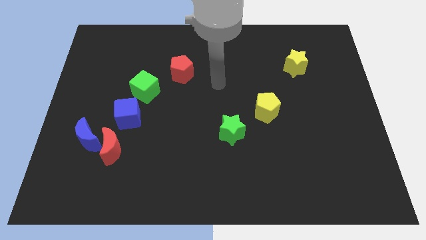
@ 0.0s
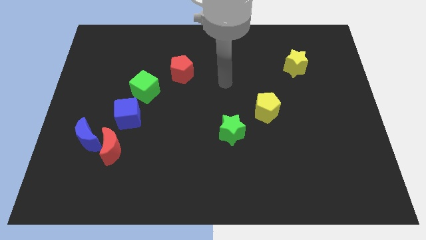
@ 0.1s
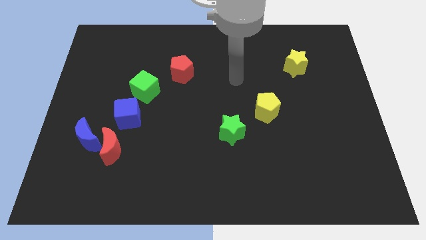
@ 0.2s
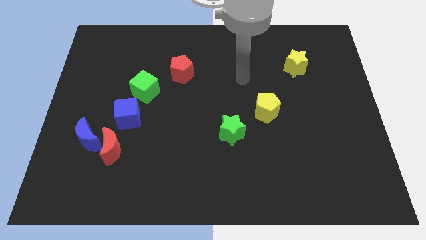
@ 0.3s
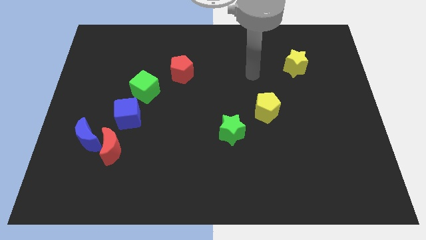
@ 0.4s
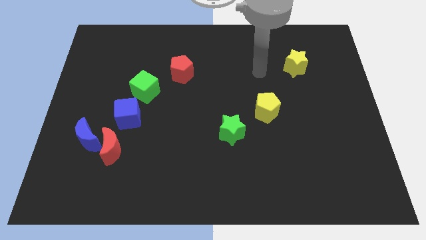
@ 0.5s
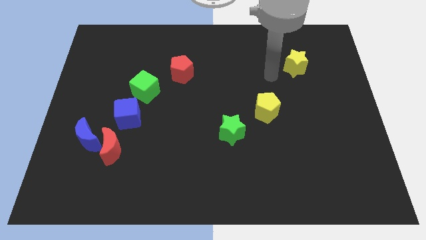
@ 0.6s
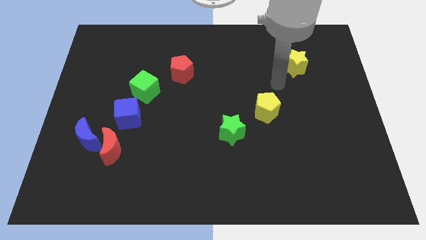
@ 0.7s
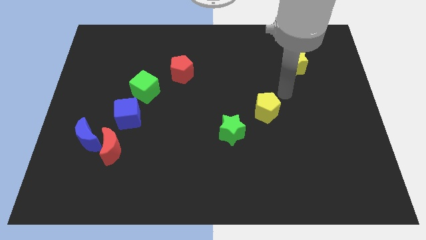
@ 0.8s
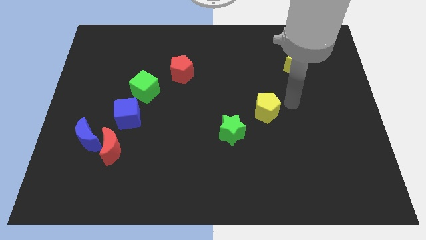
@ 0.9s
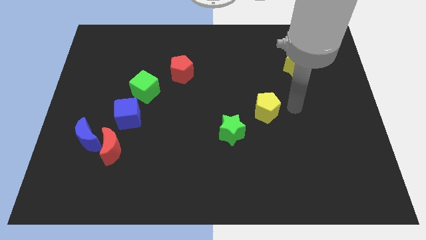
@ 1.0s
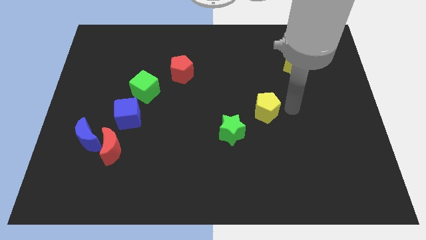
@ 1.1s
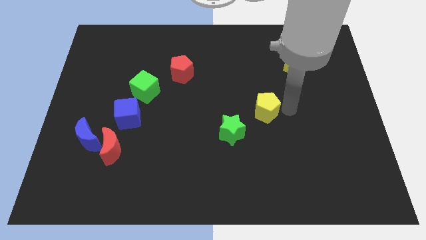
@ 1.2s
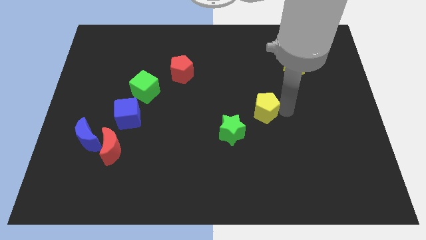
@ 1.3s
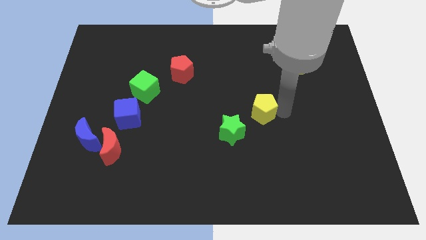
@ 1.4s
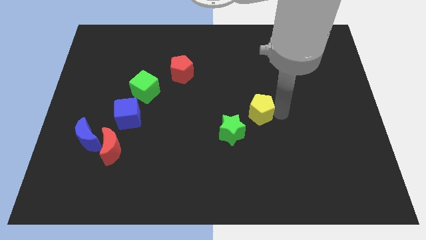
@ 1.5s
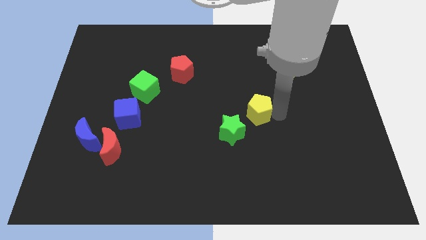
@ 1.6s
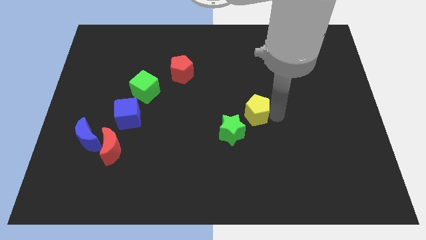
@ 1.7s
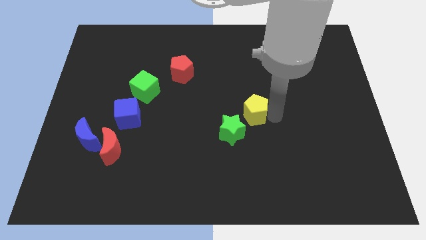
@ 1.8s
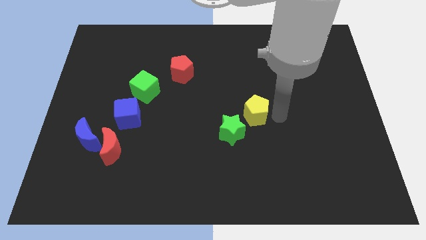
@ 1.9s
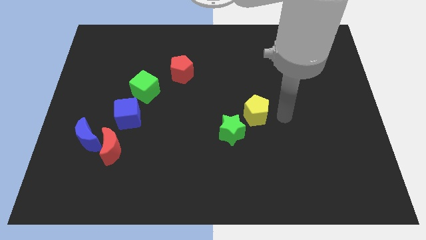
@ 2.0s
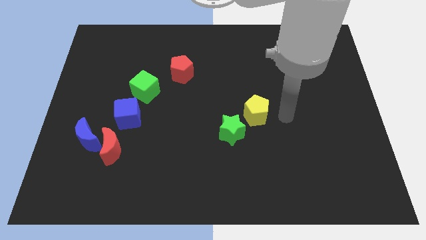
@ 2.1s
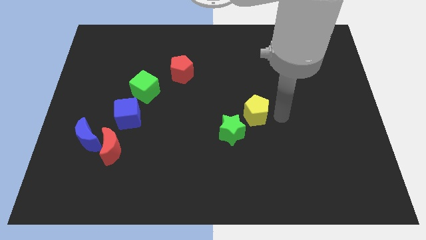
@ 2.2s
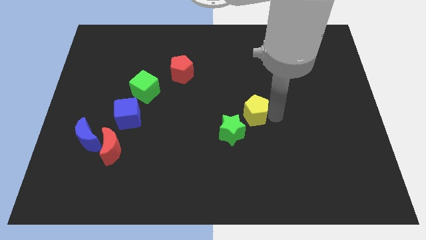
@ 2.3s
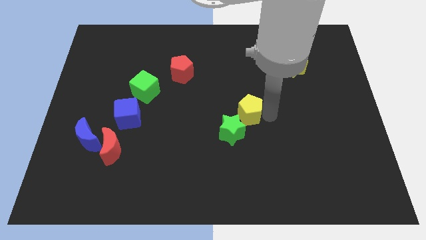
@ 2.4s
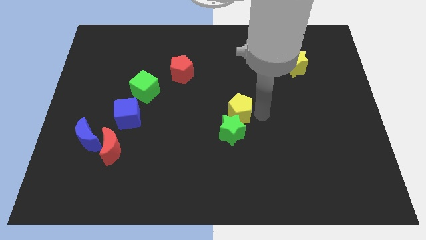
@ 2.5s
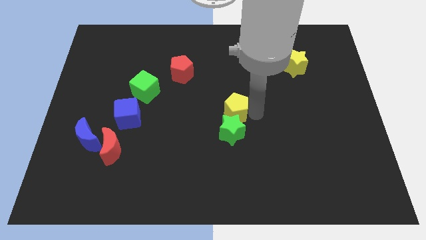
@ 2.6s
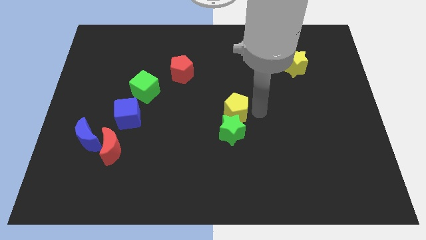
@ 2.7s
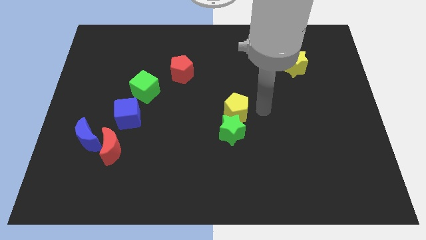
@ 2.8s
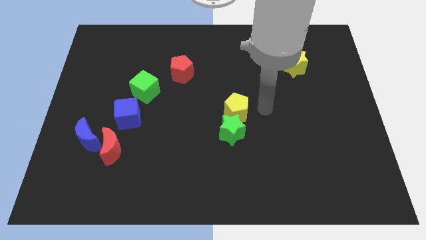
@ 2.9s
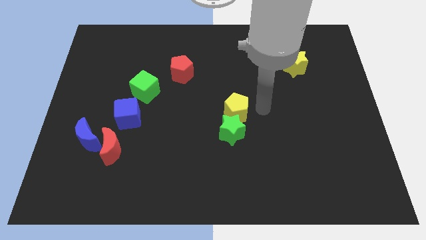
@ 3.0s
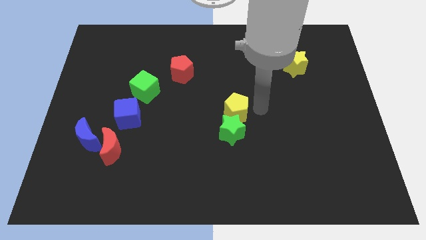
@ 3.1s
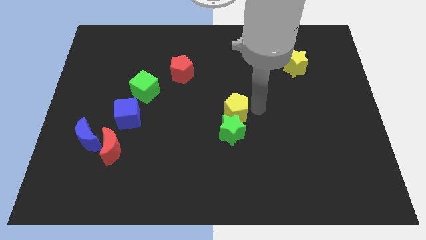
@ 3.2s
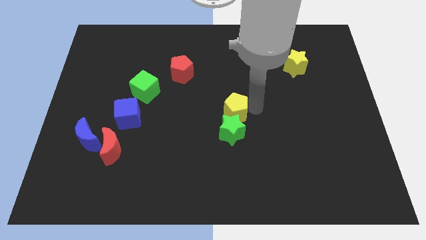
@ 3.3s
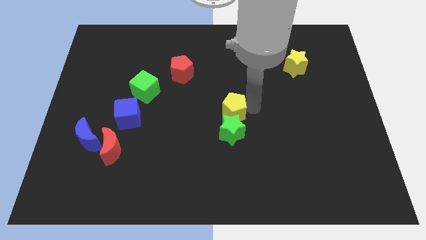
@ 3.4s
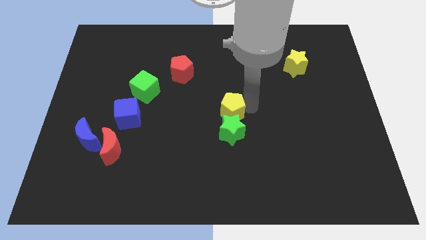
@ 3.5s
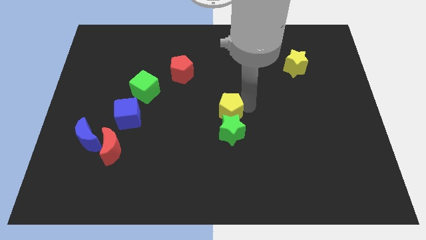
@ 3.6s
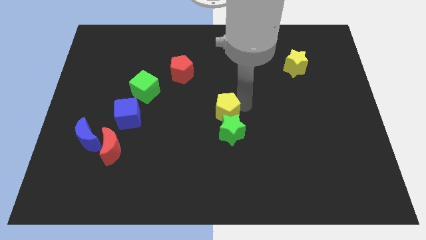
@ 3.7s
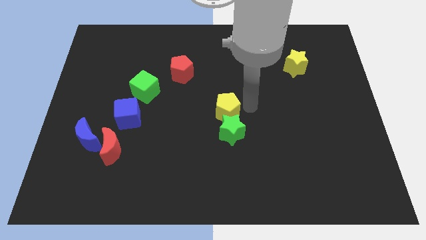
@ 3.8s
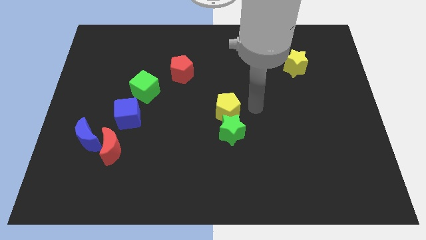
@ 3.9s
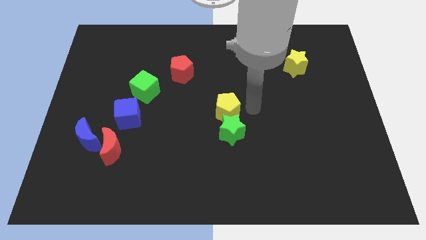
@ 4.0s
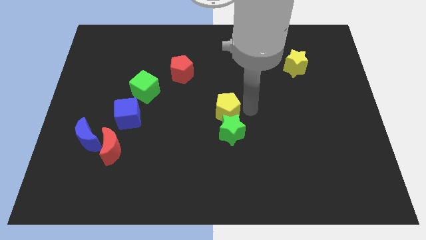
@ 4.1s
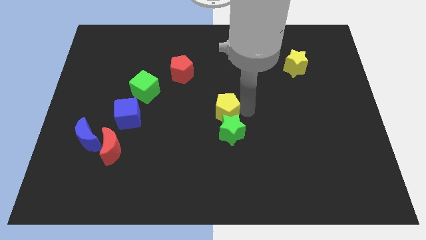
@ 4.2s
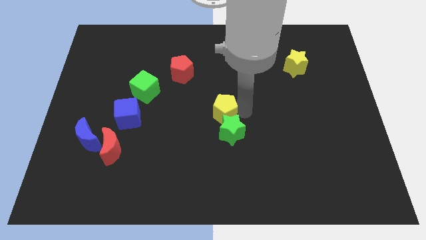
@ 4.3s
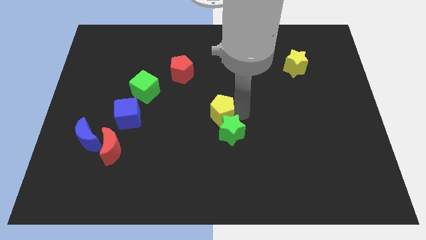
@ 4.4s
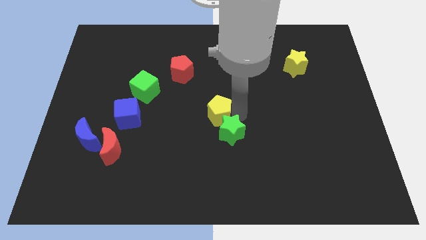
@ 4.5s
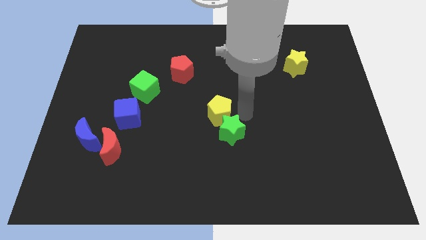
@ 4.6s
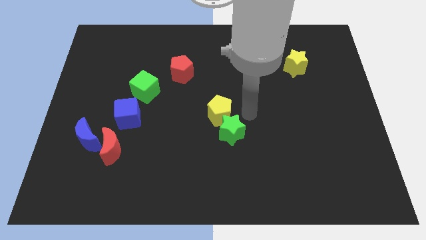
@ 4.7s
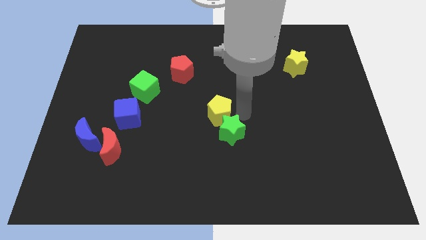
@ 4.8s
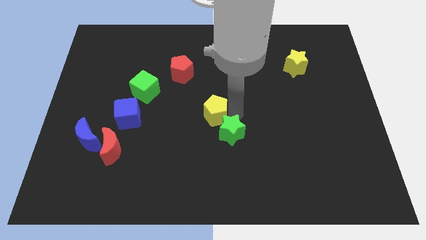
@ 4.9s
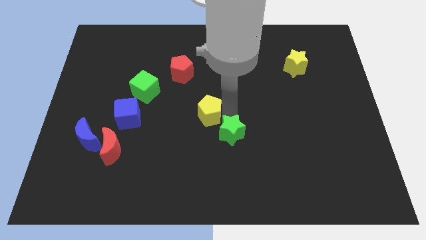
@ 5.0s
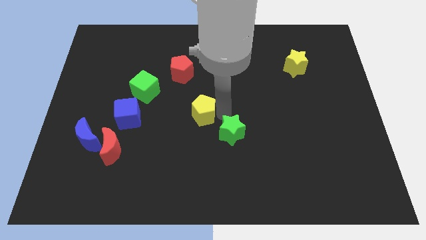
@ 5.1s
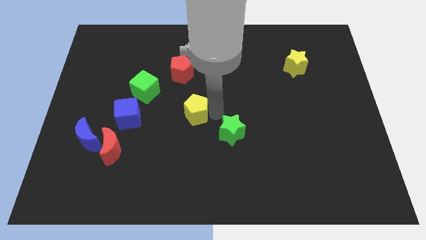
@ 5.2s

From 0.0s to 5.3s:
put the yellow pentagon just right of the blue cube

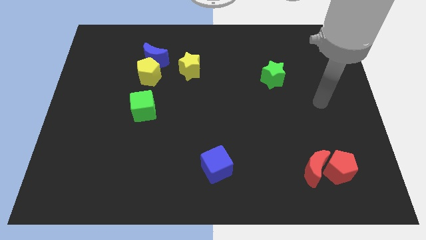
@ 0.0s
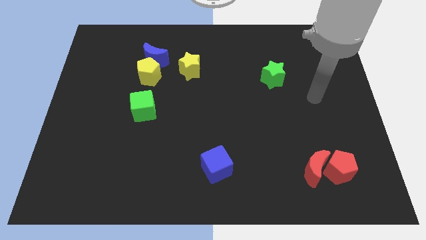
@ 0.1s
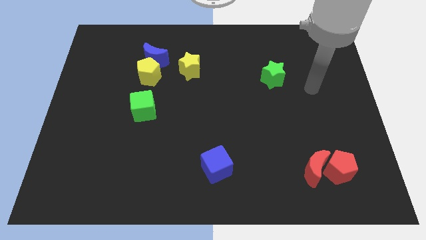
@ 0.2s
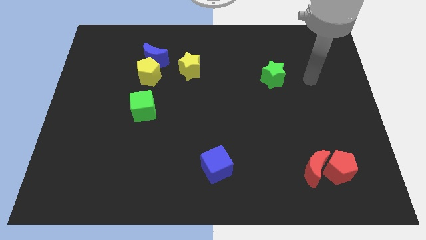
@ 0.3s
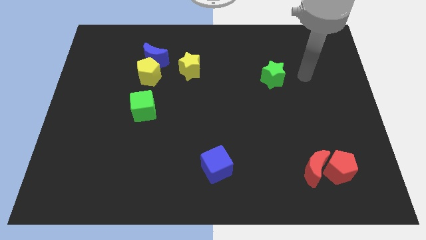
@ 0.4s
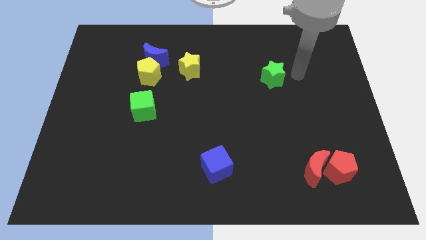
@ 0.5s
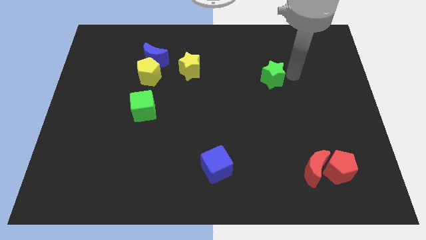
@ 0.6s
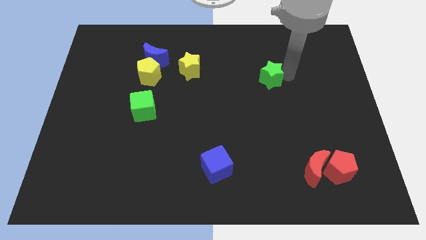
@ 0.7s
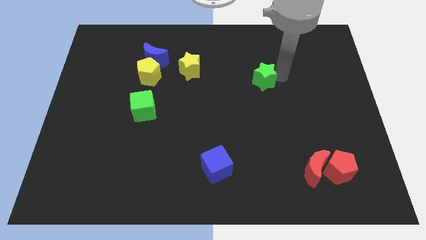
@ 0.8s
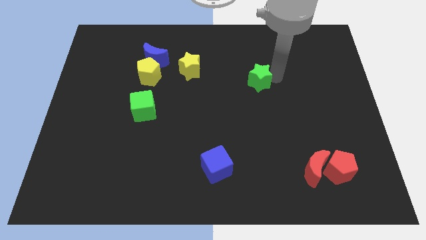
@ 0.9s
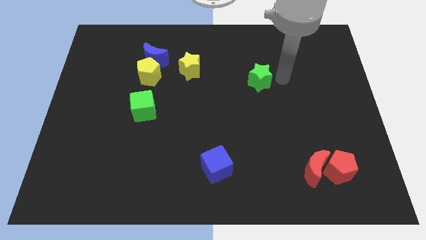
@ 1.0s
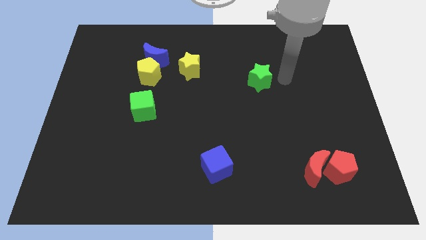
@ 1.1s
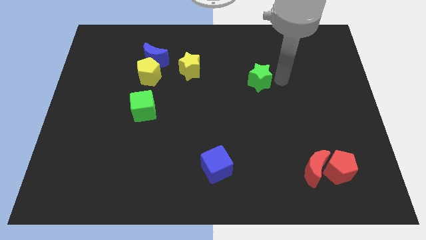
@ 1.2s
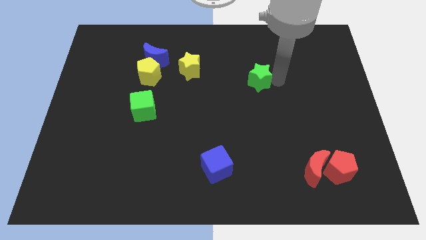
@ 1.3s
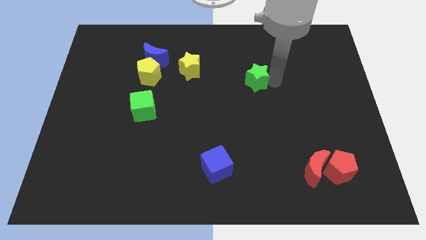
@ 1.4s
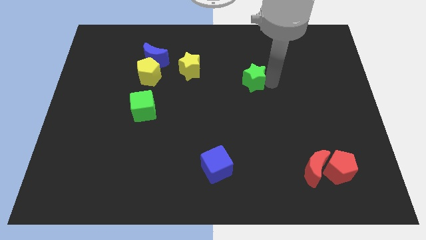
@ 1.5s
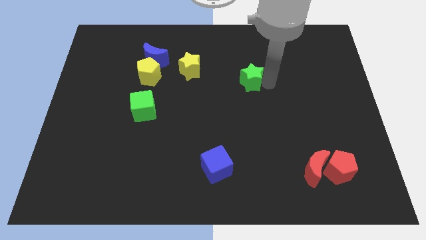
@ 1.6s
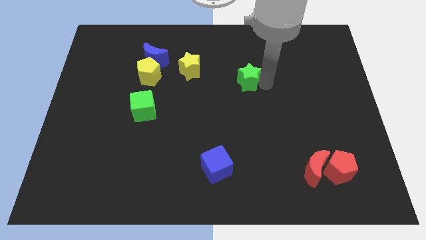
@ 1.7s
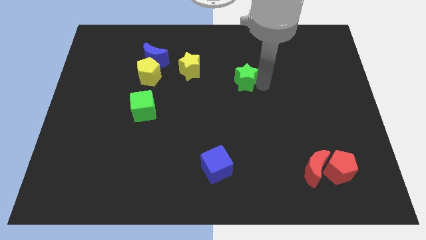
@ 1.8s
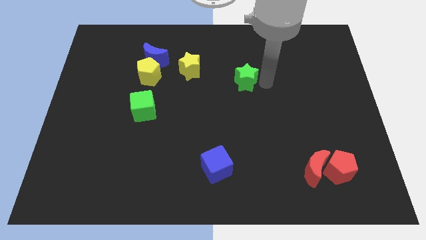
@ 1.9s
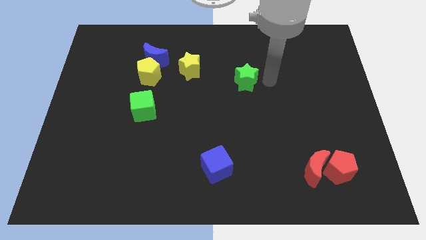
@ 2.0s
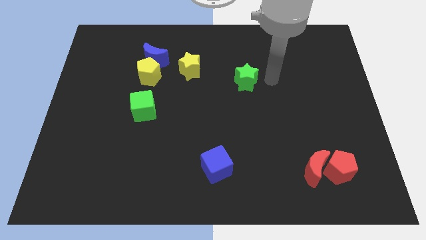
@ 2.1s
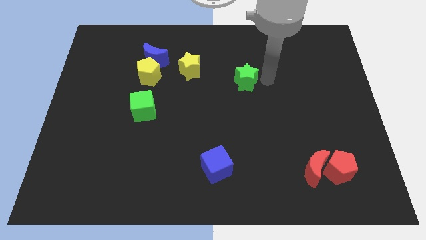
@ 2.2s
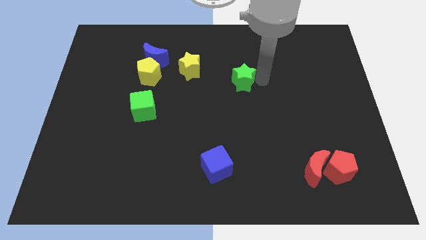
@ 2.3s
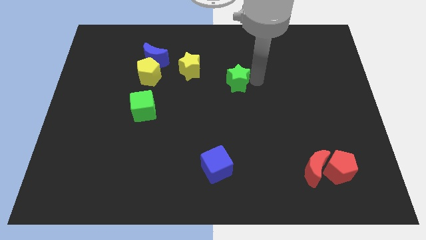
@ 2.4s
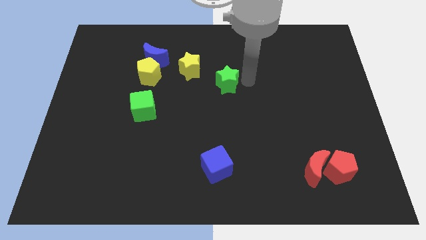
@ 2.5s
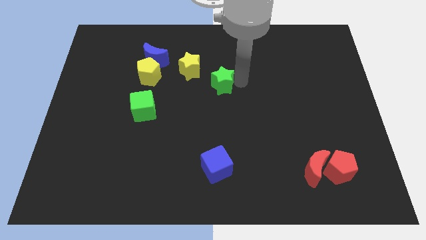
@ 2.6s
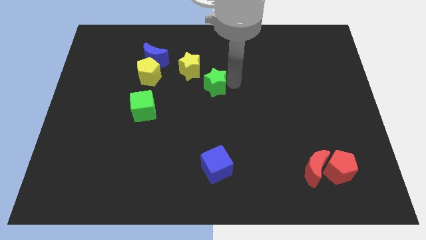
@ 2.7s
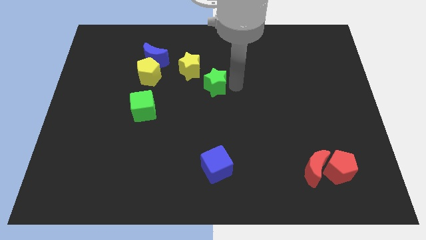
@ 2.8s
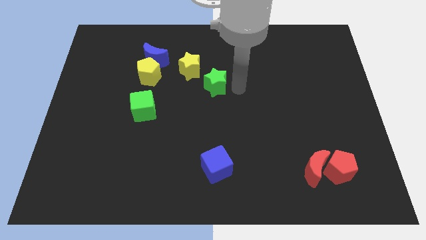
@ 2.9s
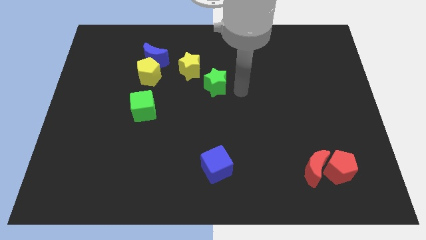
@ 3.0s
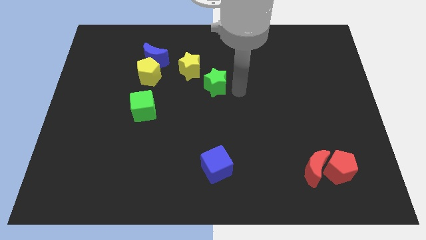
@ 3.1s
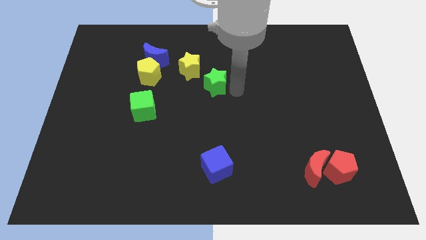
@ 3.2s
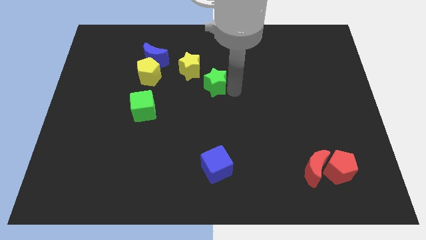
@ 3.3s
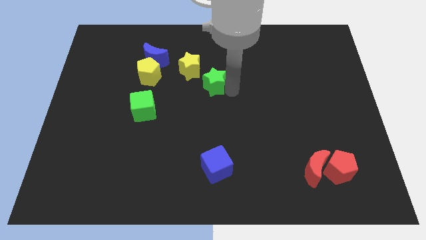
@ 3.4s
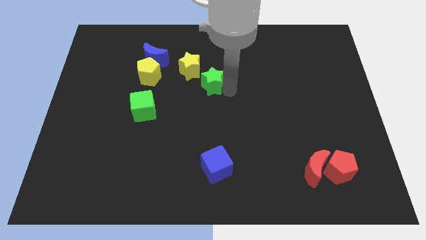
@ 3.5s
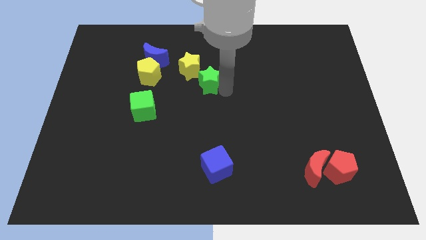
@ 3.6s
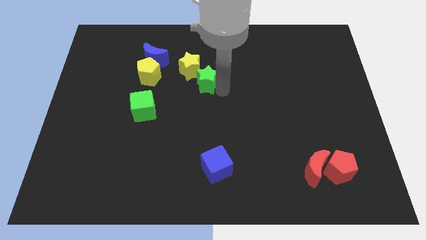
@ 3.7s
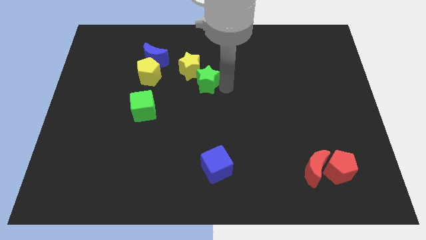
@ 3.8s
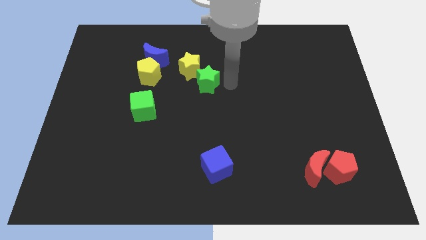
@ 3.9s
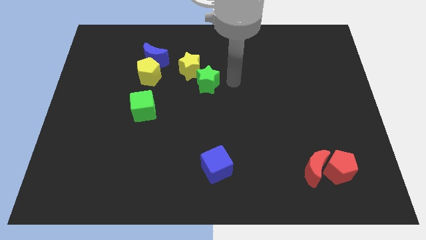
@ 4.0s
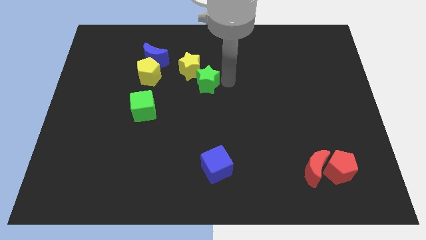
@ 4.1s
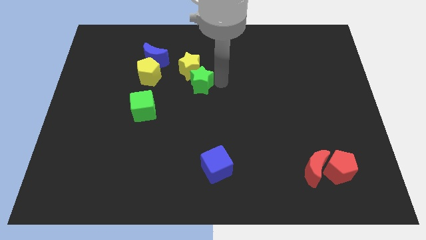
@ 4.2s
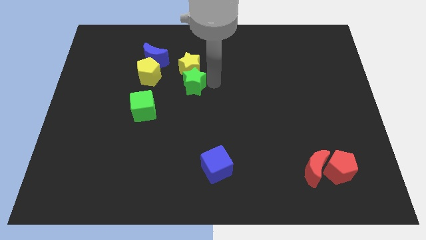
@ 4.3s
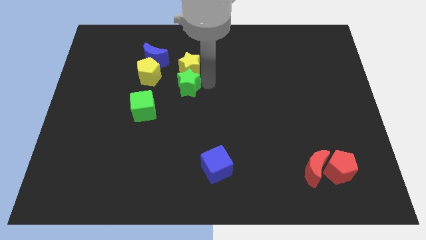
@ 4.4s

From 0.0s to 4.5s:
put the green star to the bottom right of the blue moon
